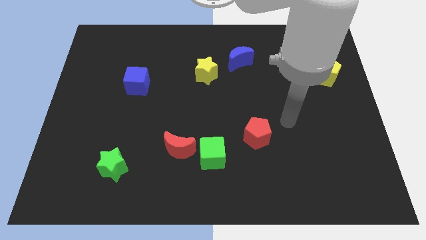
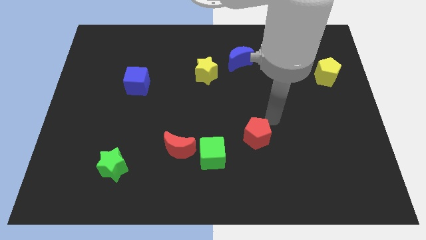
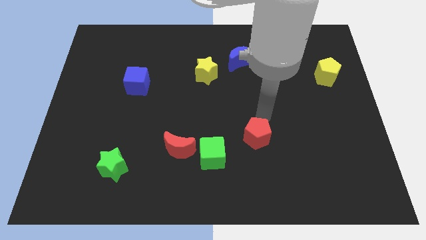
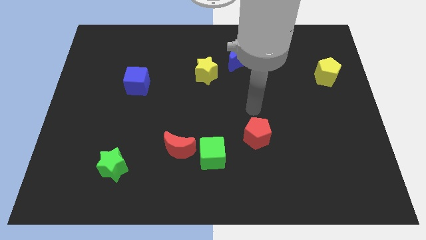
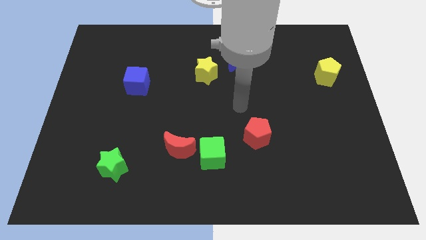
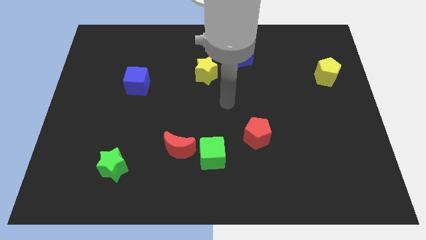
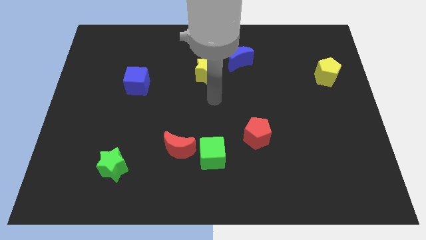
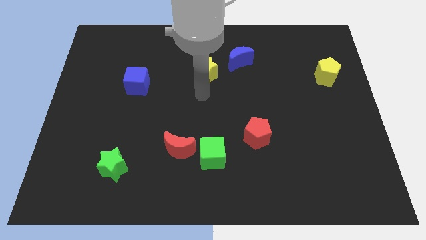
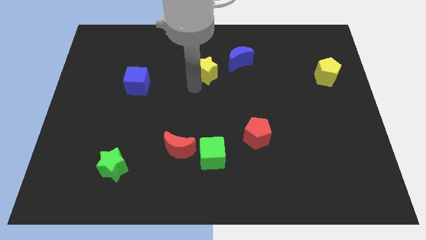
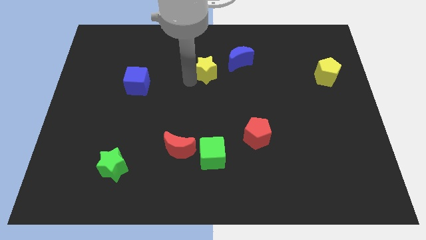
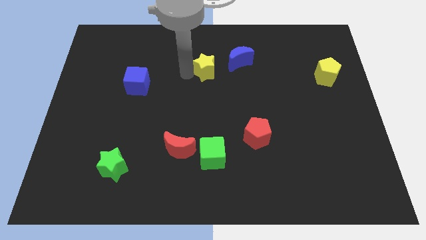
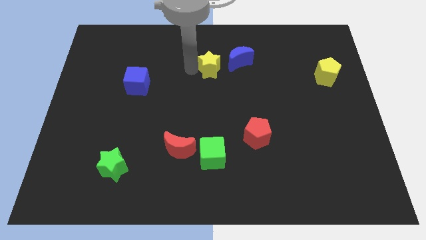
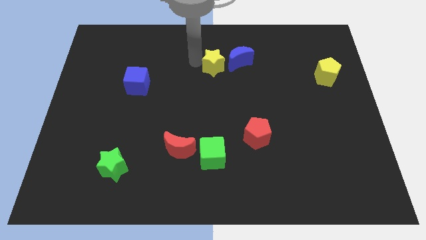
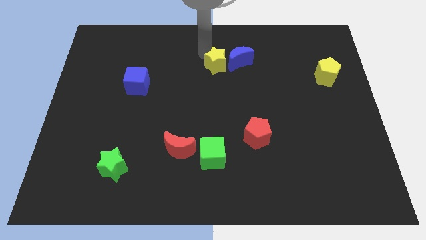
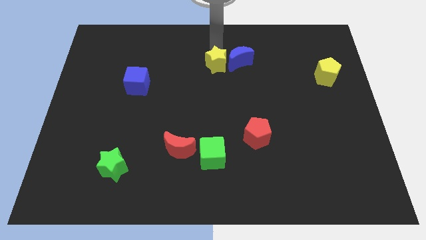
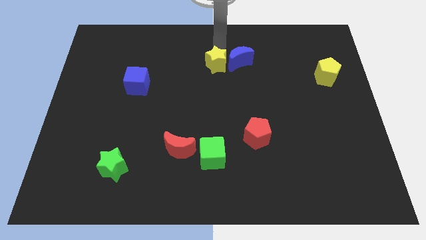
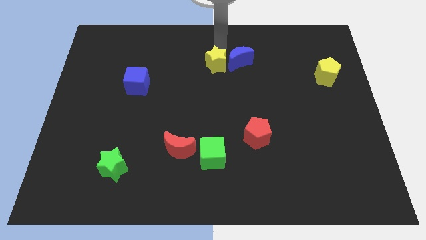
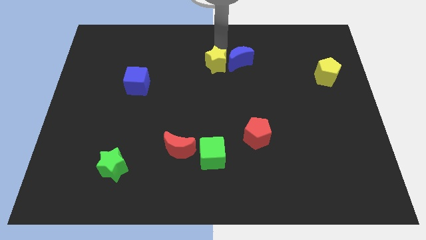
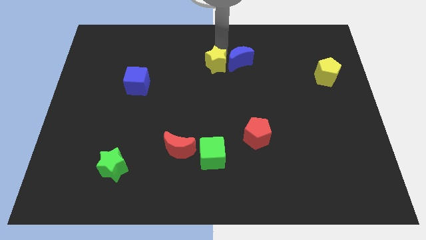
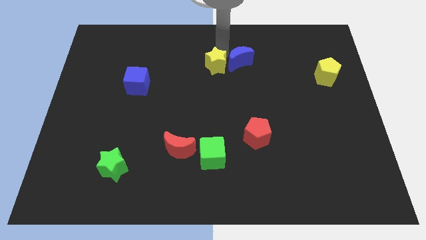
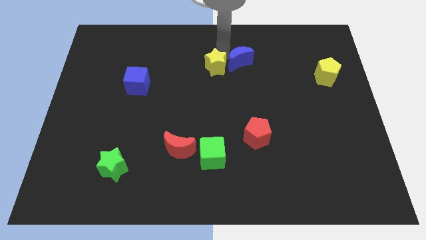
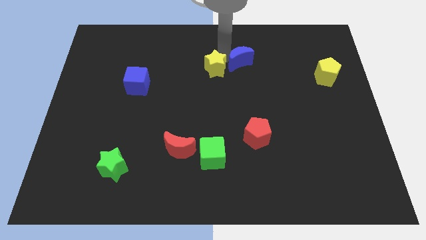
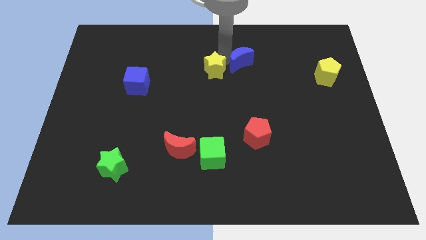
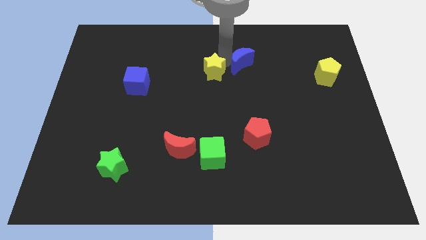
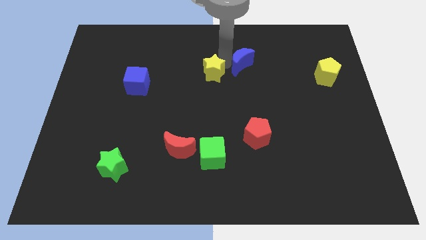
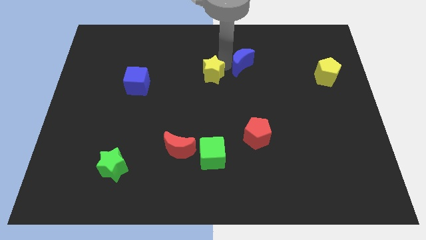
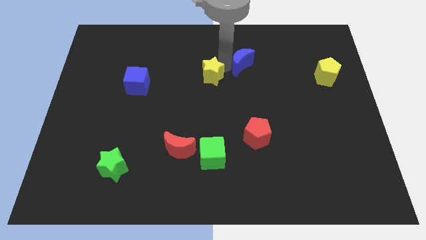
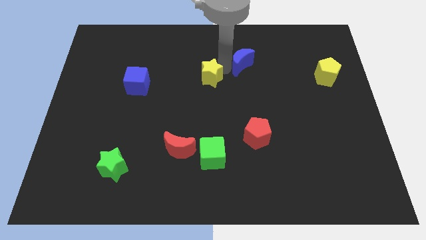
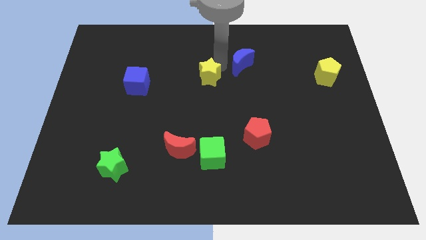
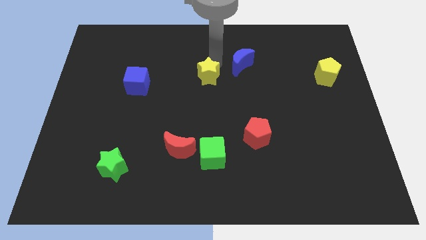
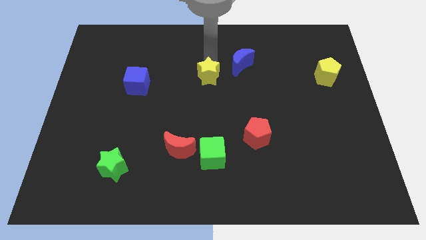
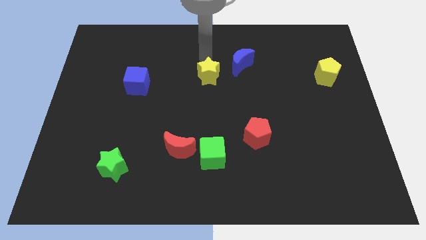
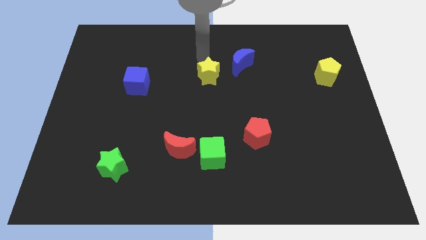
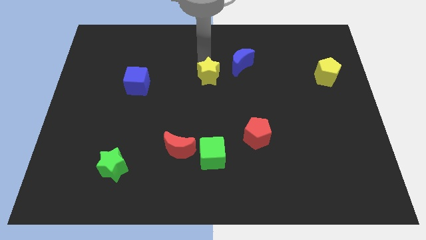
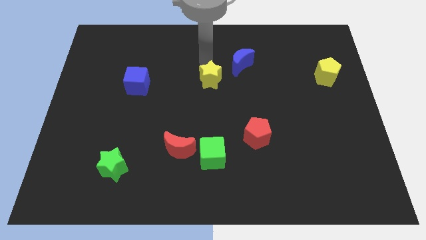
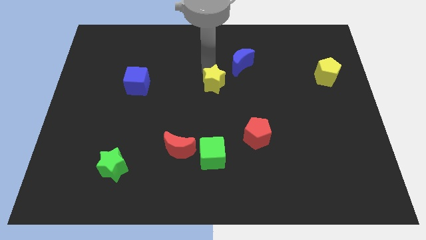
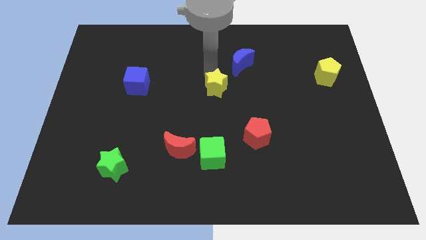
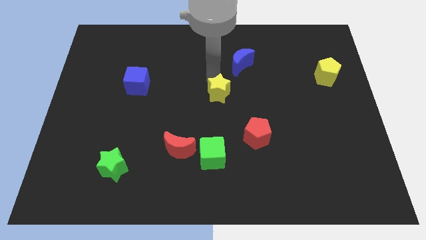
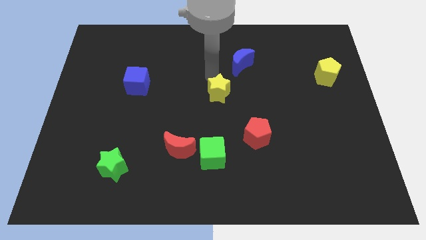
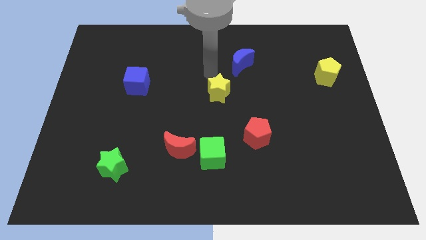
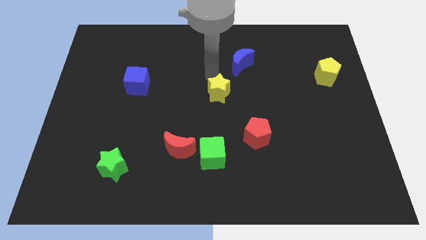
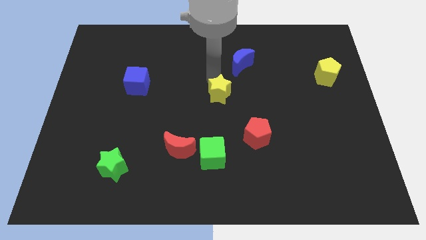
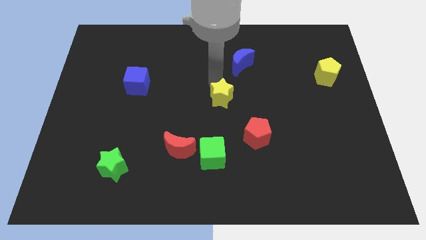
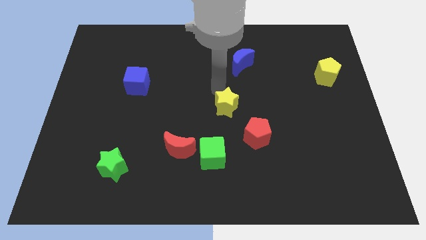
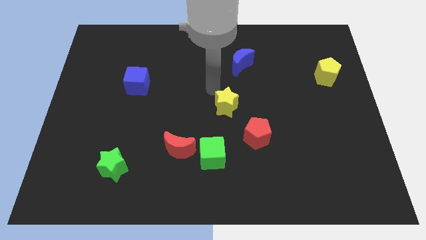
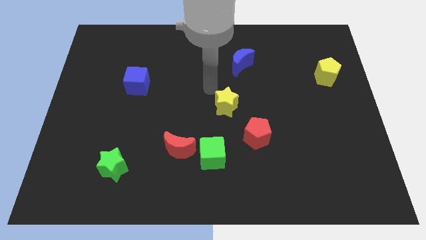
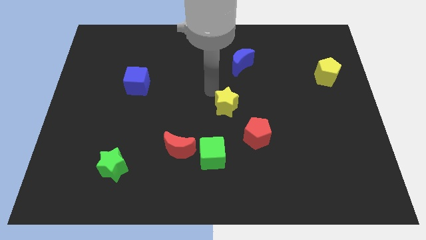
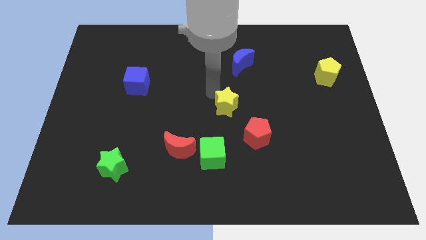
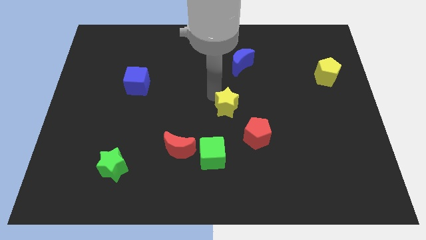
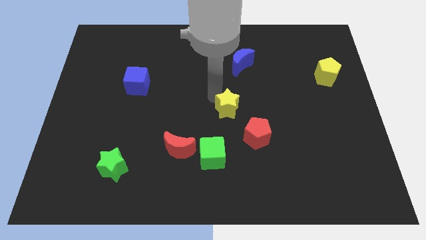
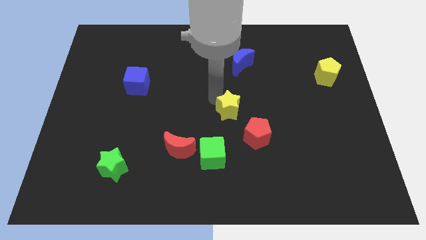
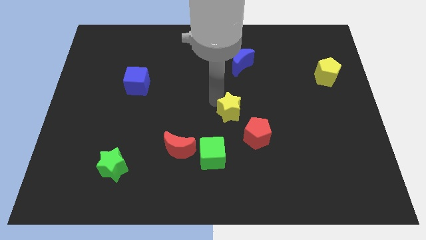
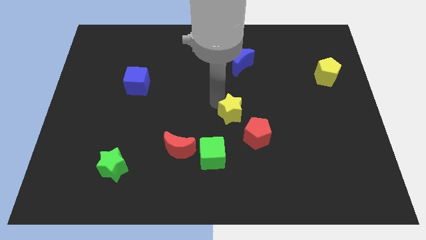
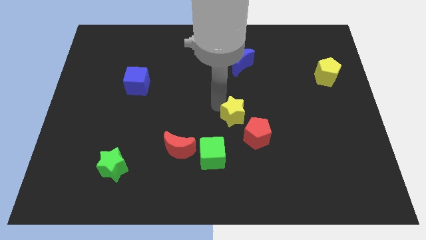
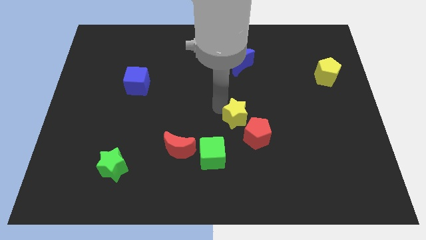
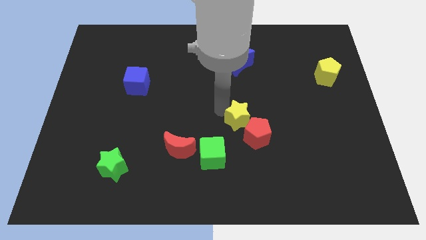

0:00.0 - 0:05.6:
move the yellow star close to the red pentagon

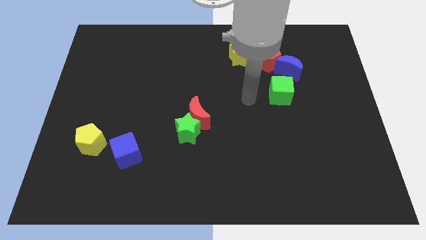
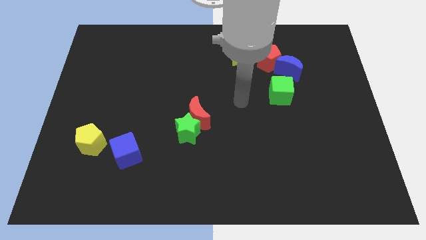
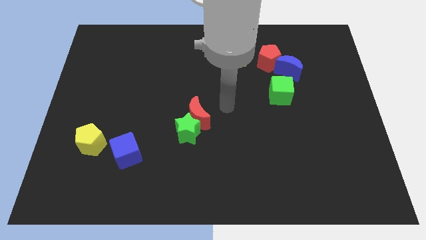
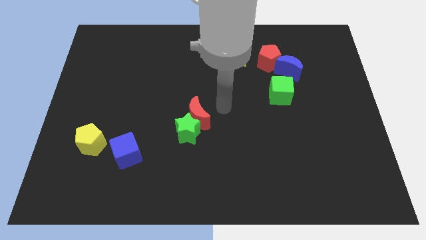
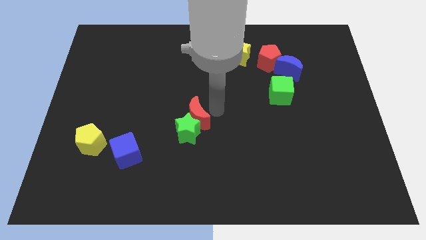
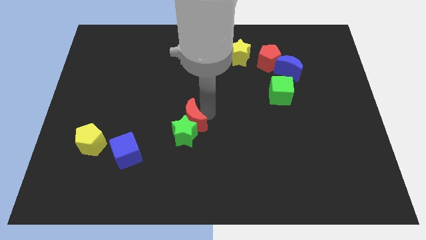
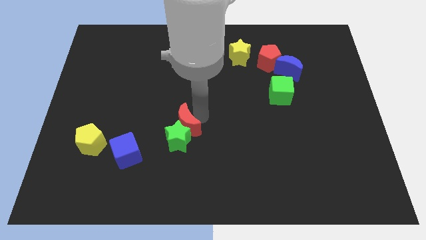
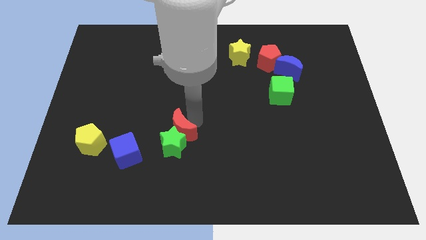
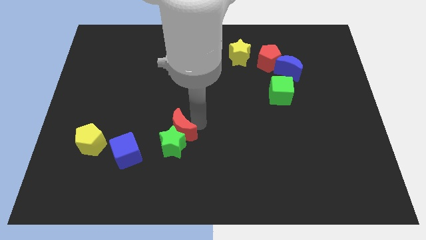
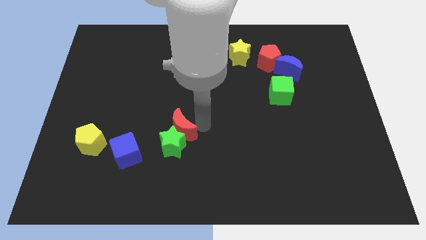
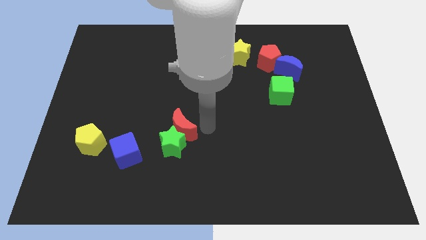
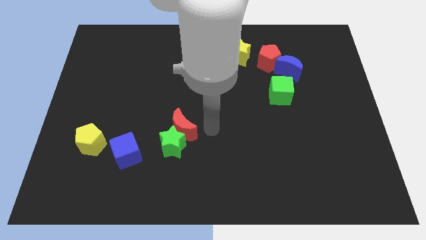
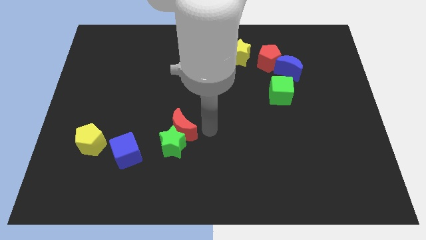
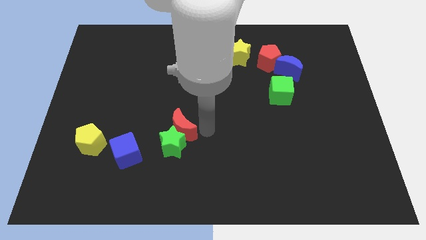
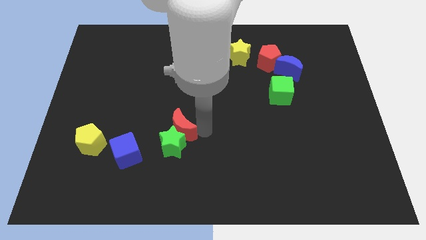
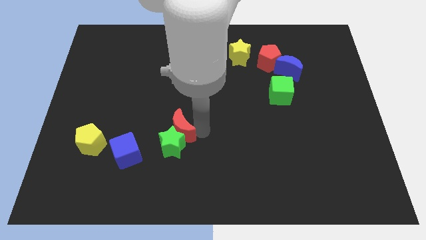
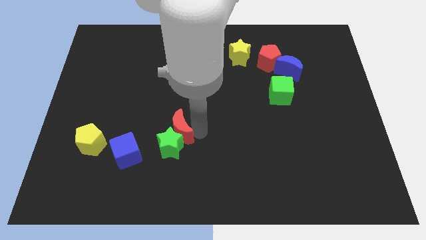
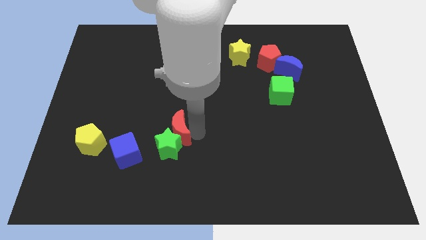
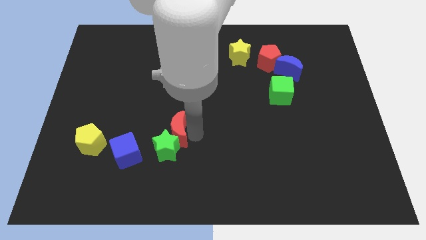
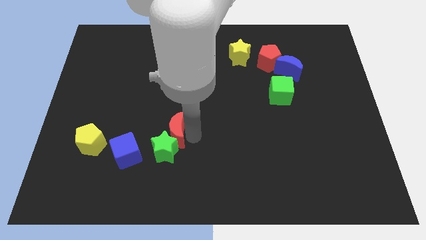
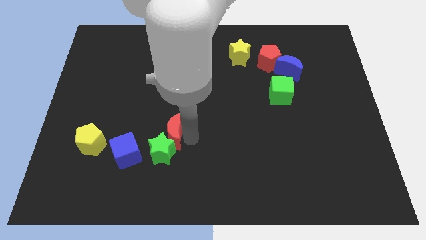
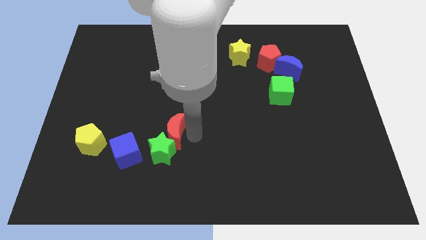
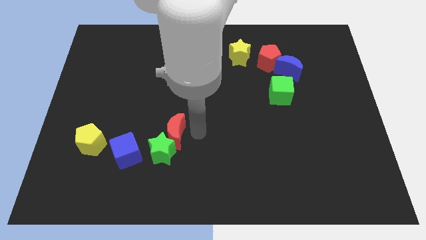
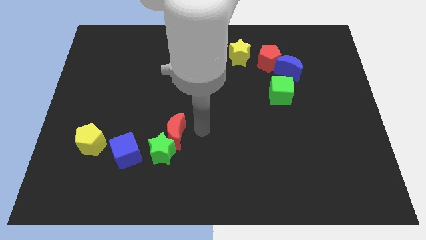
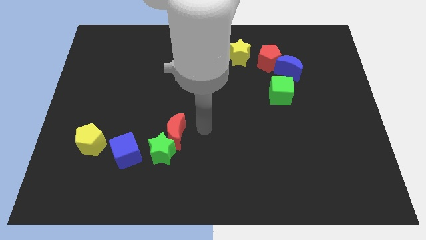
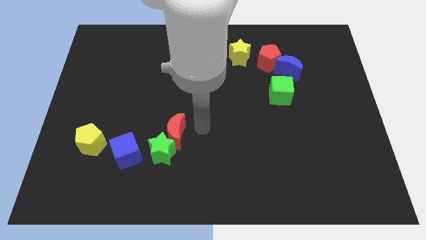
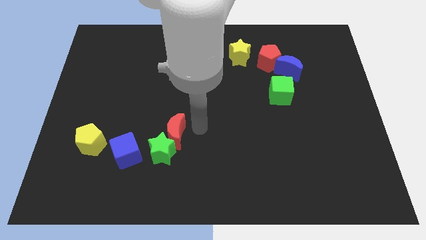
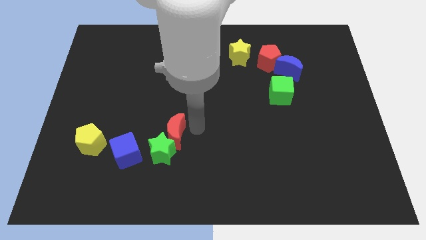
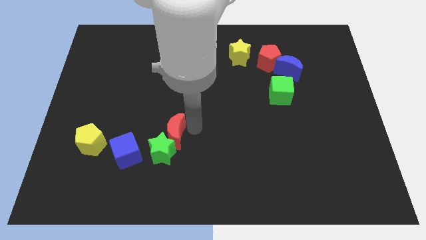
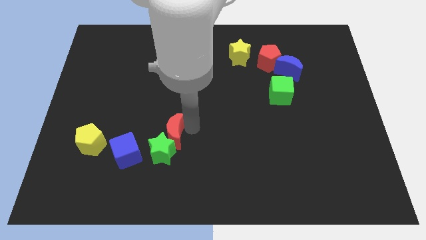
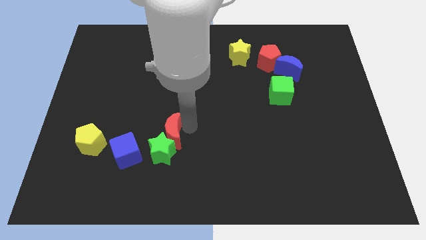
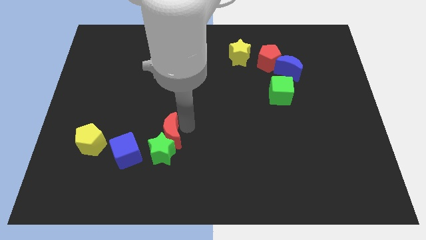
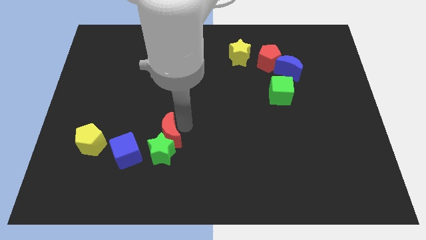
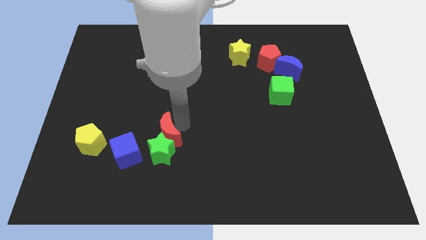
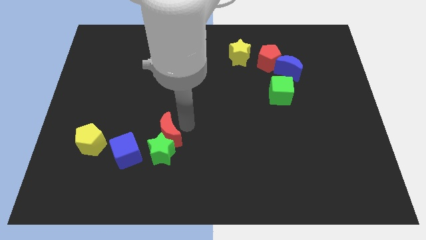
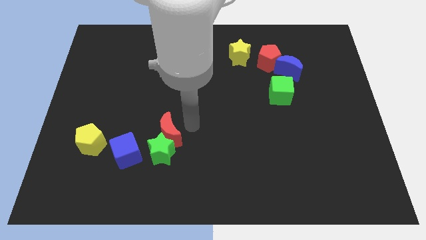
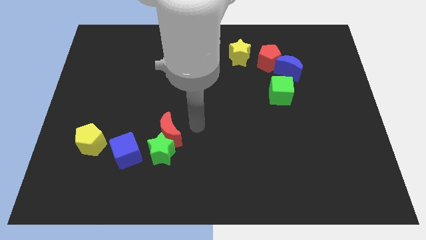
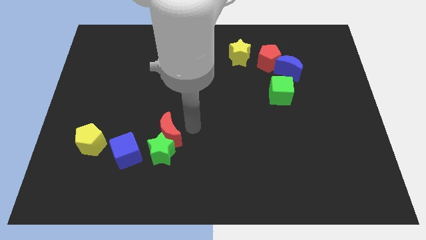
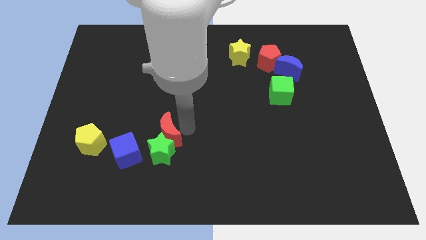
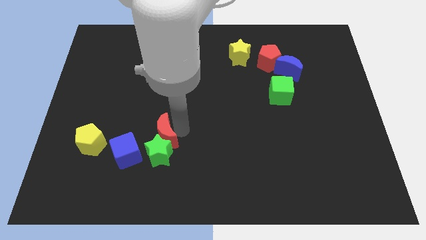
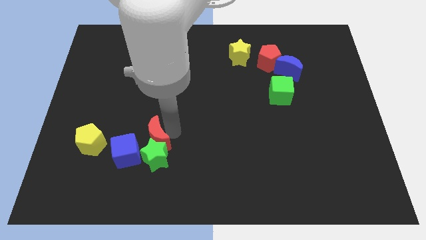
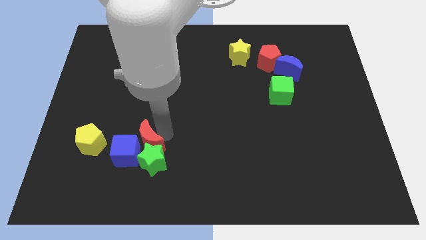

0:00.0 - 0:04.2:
slide the red moon next to the blue cube
